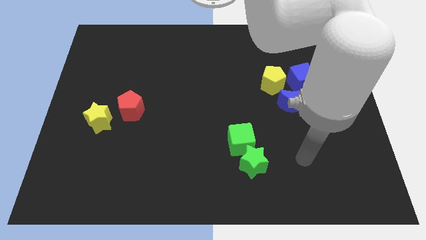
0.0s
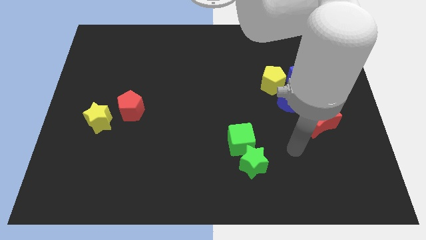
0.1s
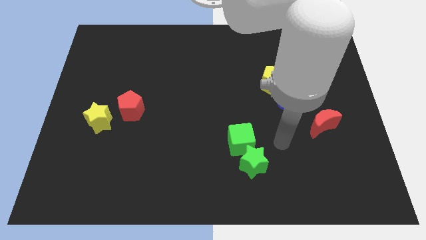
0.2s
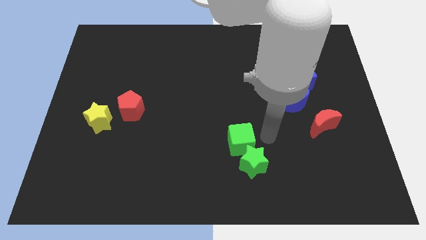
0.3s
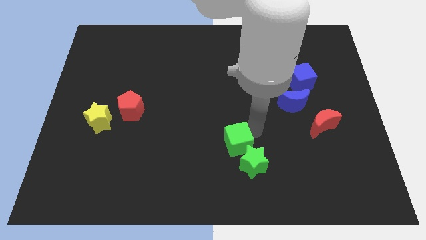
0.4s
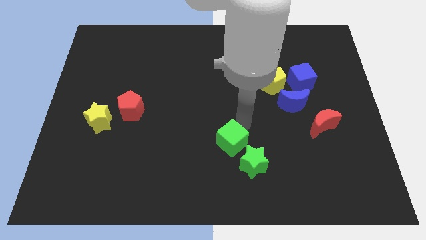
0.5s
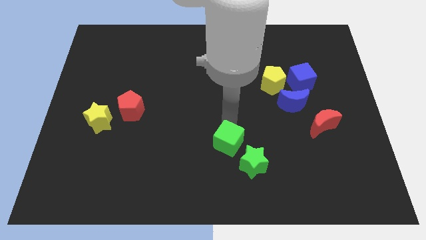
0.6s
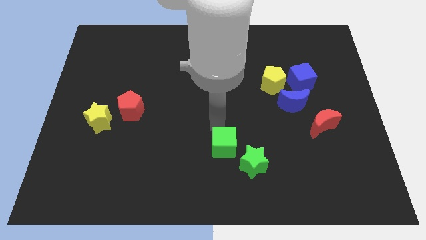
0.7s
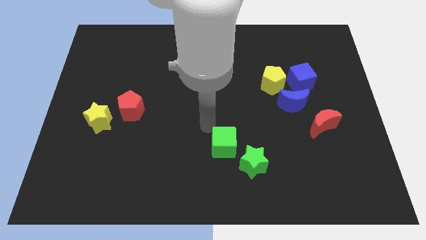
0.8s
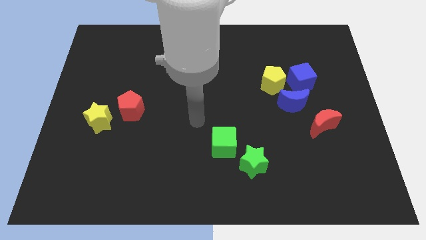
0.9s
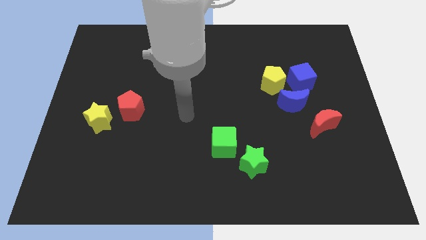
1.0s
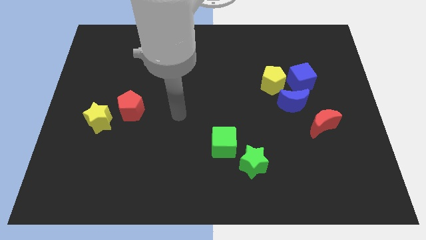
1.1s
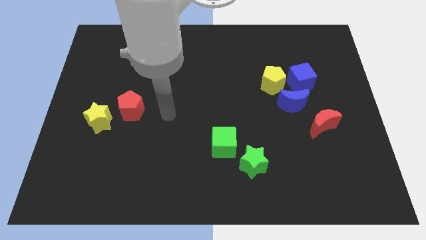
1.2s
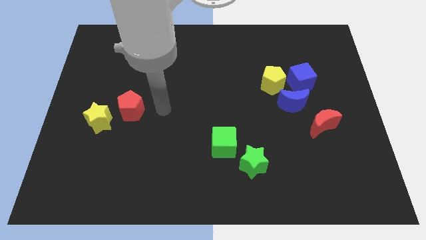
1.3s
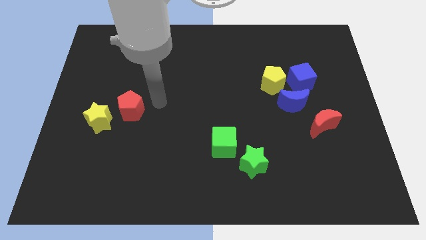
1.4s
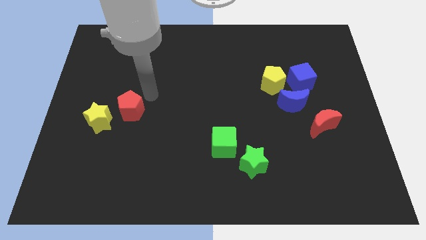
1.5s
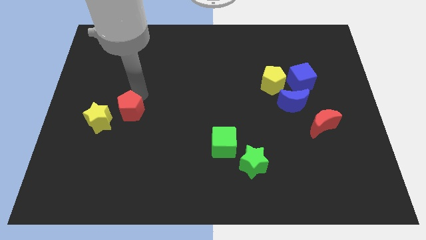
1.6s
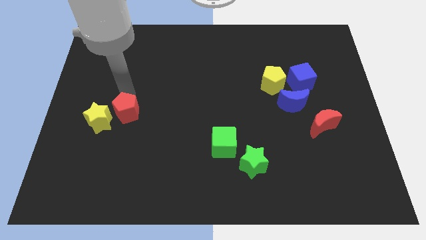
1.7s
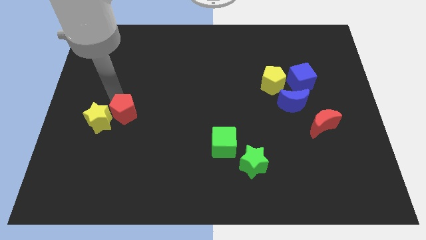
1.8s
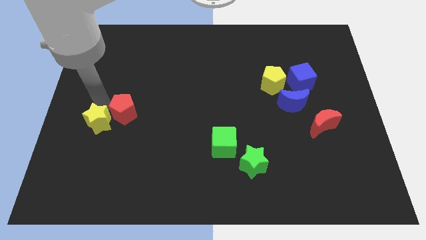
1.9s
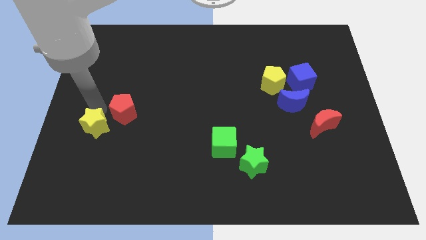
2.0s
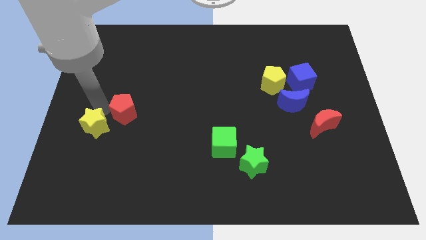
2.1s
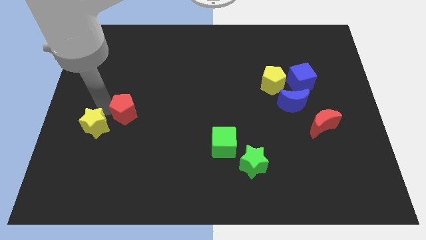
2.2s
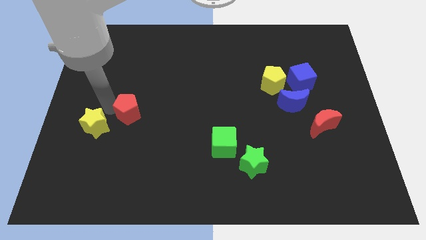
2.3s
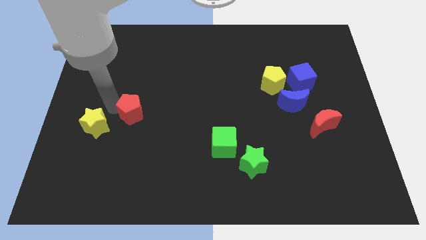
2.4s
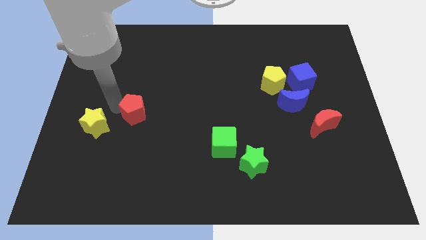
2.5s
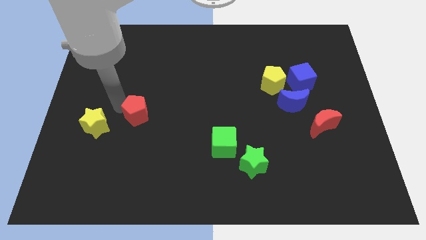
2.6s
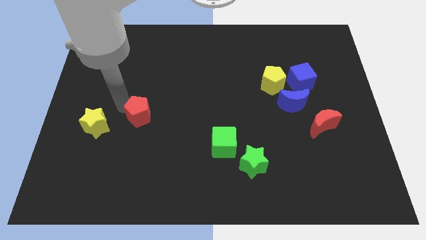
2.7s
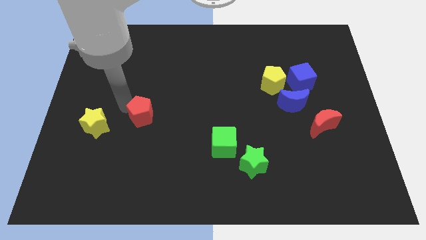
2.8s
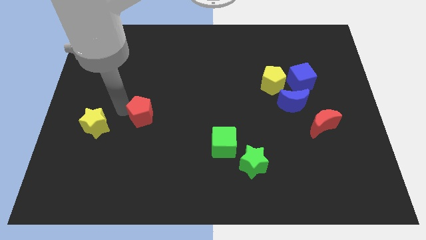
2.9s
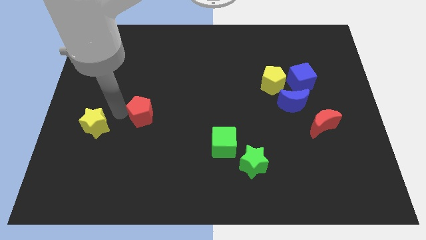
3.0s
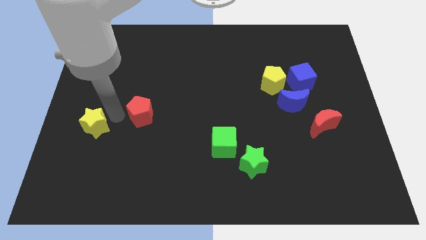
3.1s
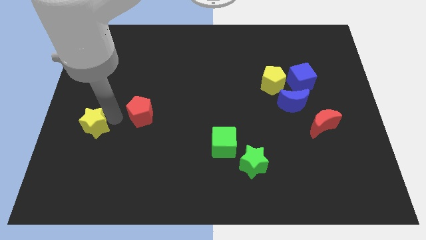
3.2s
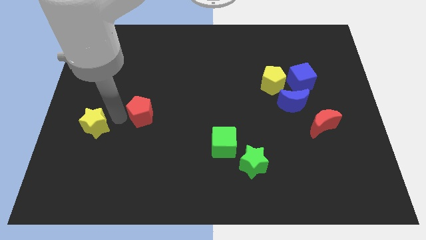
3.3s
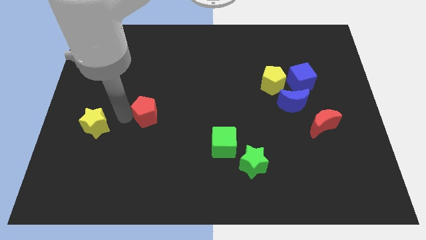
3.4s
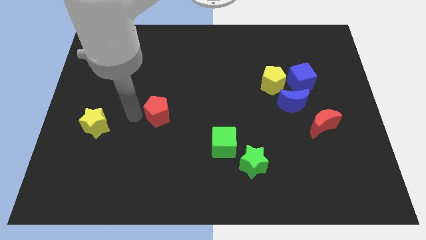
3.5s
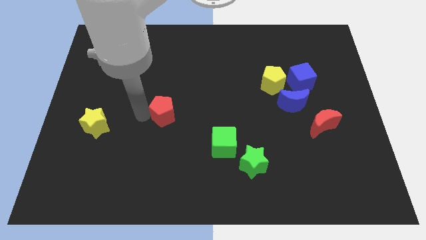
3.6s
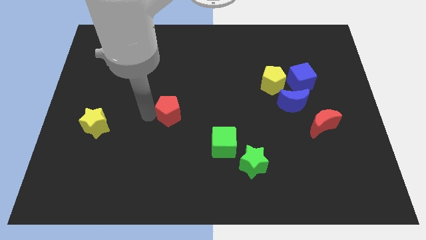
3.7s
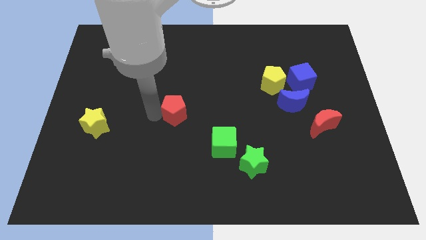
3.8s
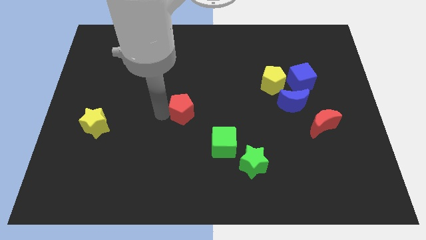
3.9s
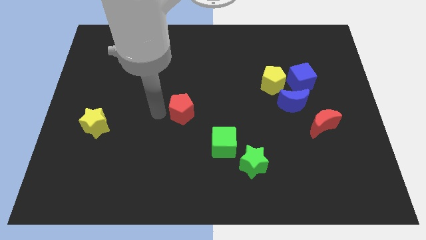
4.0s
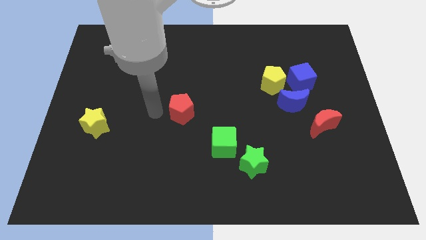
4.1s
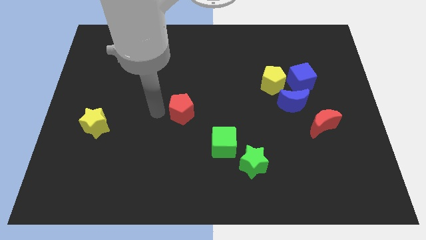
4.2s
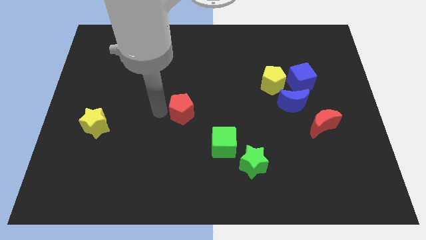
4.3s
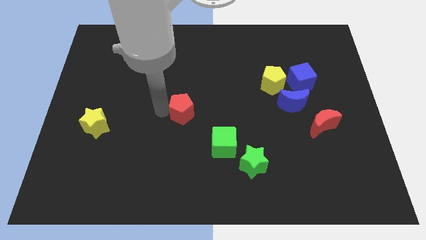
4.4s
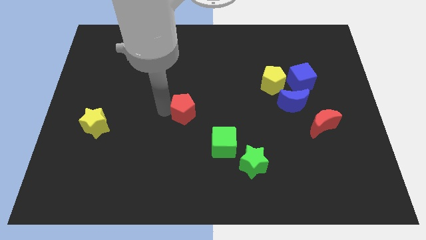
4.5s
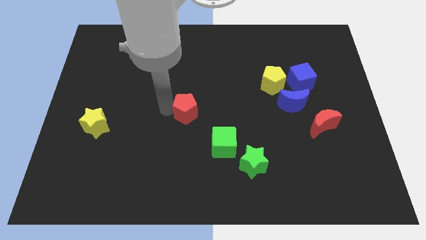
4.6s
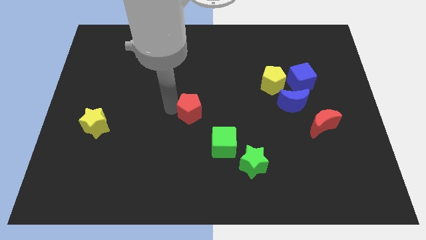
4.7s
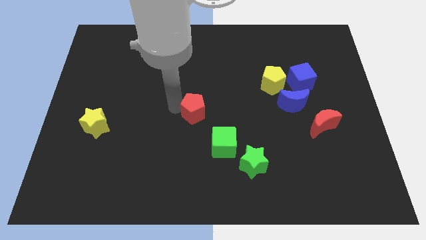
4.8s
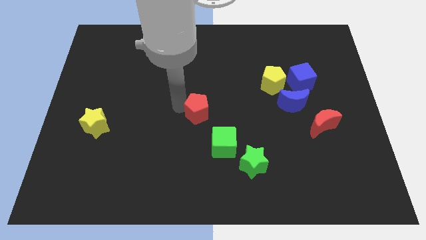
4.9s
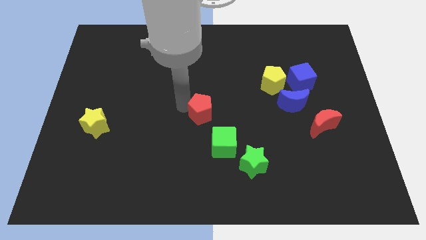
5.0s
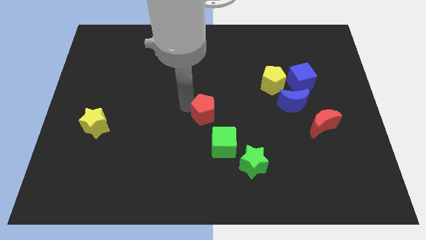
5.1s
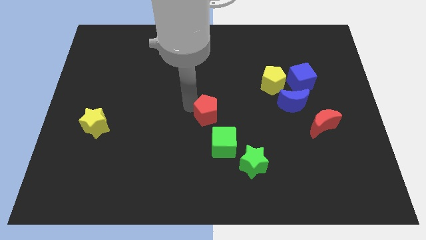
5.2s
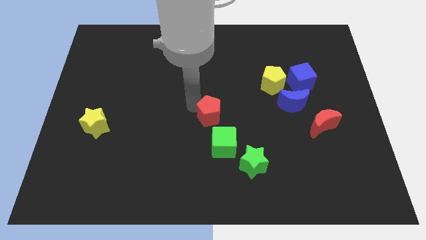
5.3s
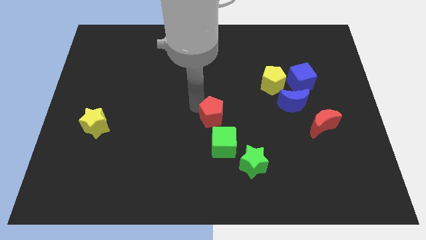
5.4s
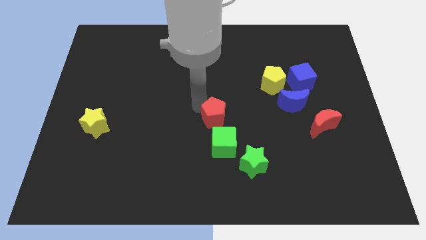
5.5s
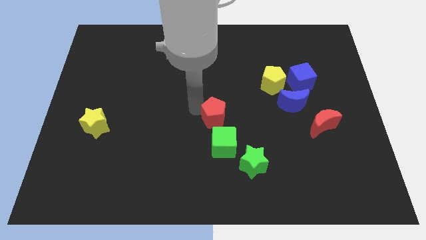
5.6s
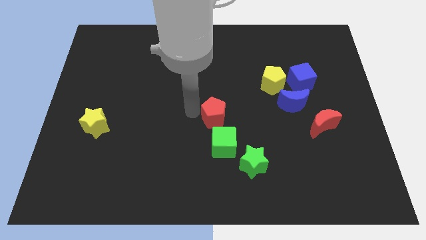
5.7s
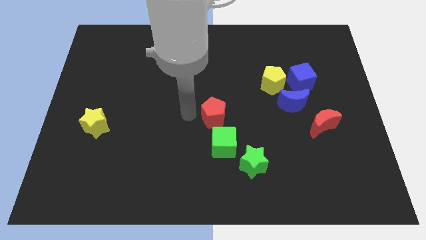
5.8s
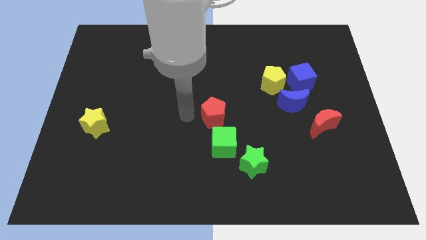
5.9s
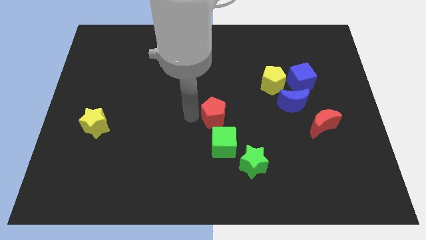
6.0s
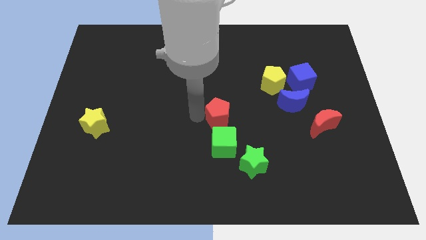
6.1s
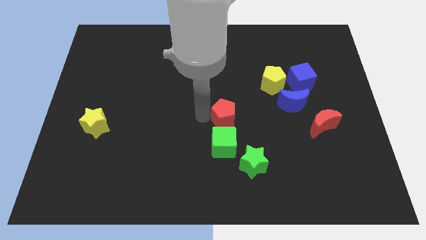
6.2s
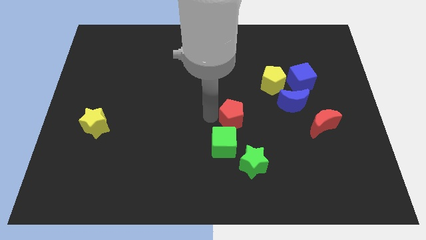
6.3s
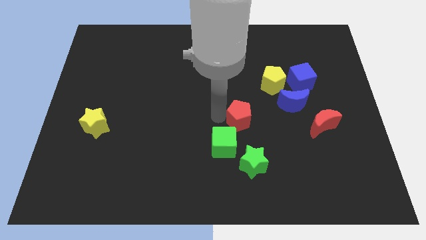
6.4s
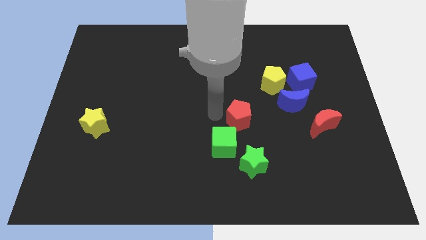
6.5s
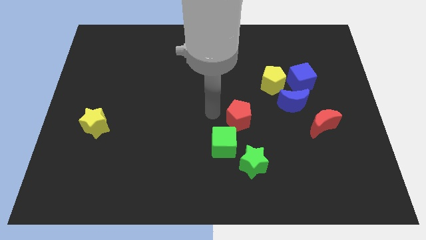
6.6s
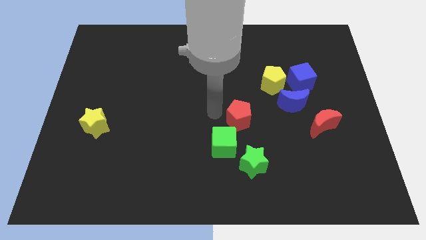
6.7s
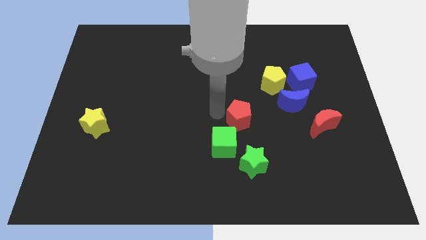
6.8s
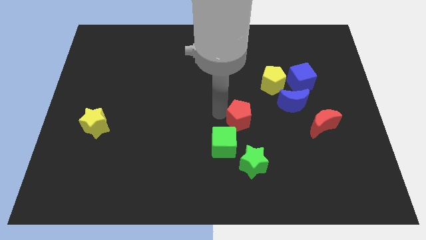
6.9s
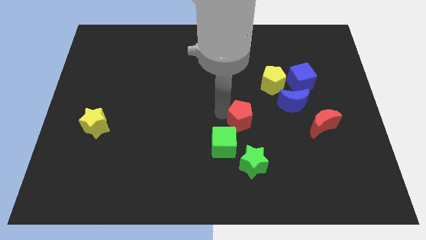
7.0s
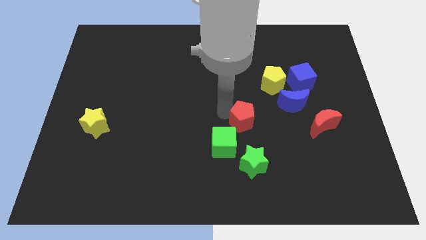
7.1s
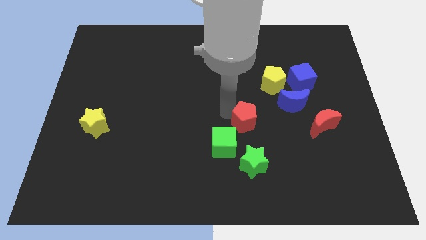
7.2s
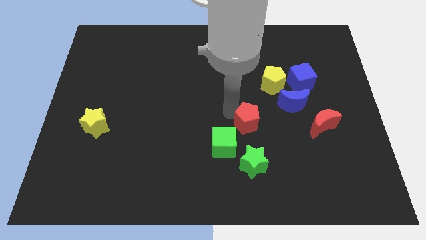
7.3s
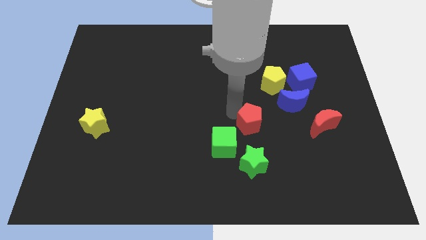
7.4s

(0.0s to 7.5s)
move the red pentagon diagonally down and to the left of the blue moon
